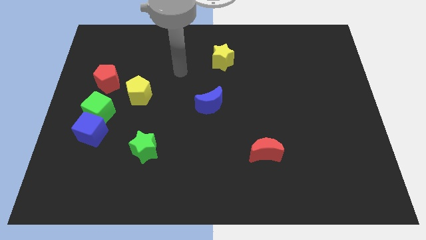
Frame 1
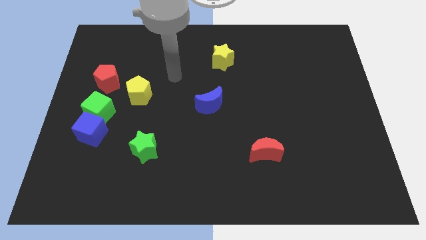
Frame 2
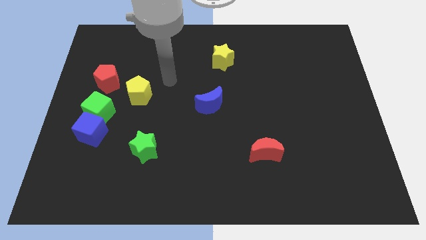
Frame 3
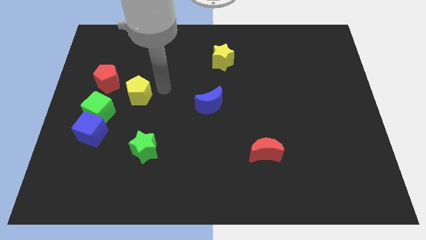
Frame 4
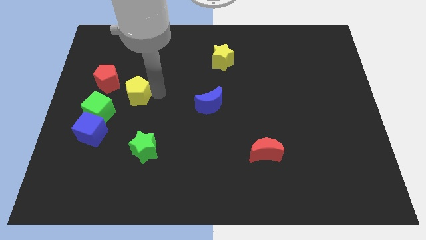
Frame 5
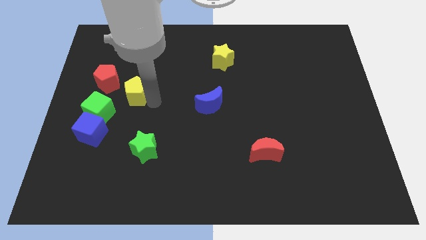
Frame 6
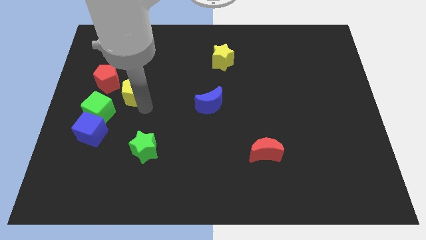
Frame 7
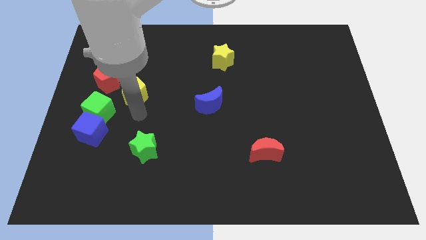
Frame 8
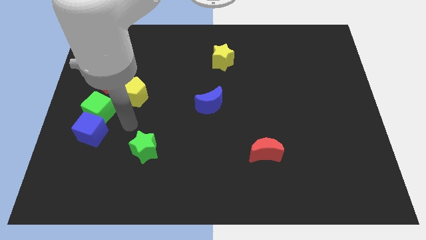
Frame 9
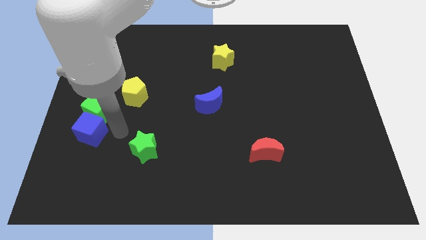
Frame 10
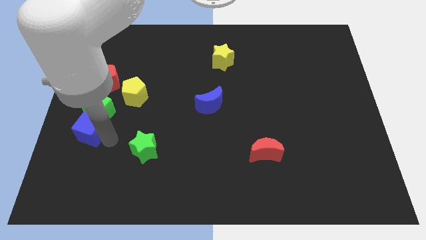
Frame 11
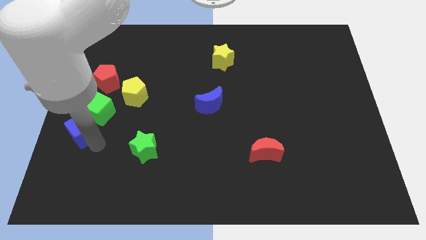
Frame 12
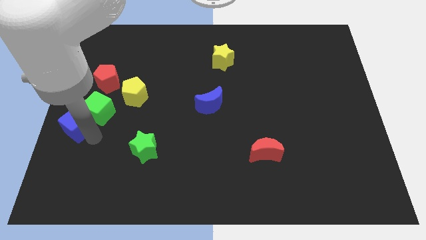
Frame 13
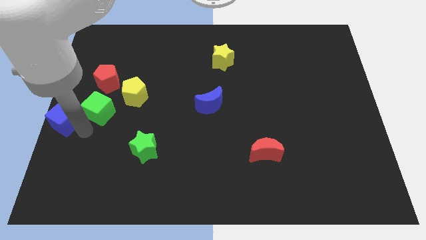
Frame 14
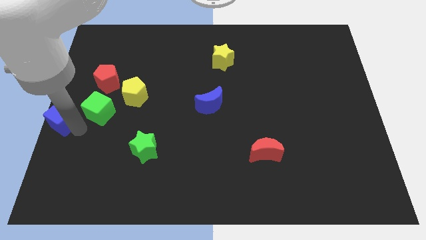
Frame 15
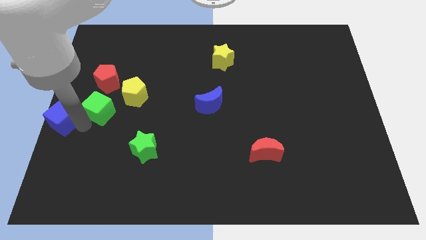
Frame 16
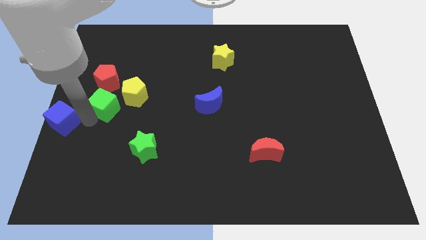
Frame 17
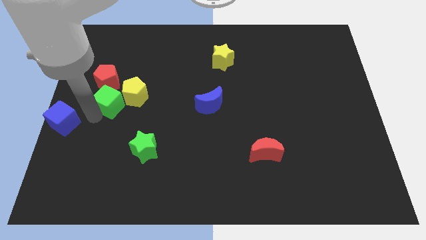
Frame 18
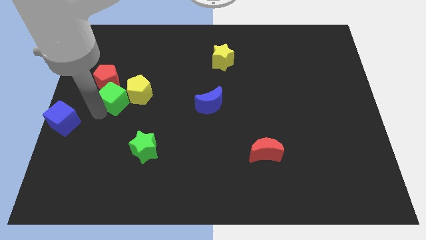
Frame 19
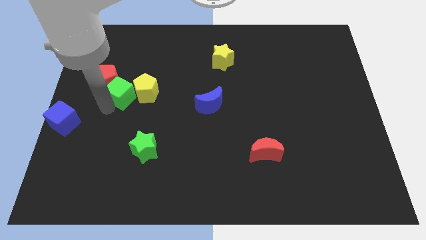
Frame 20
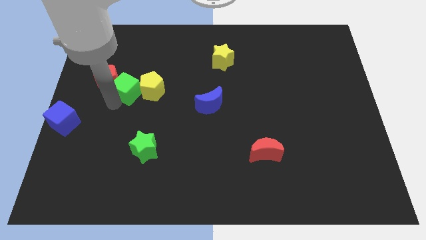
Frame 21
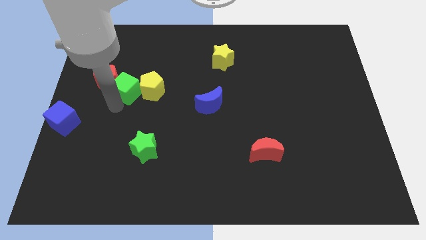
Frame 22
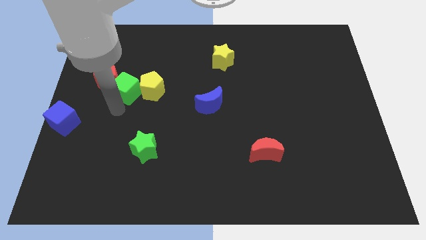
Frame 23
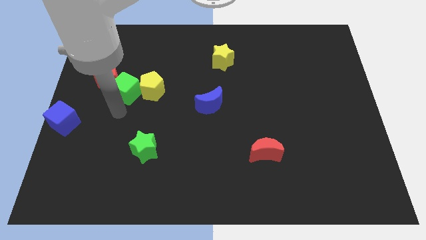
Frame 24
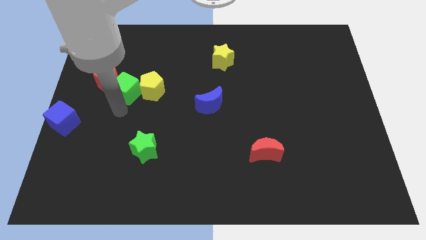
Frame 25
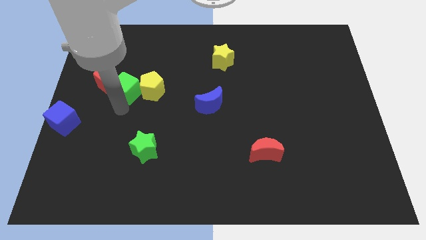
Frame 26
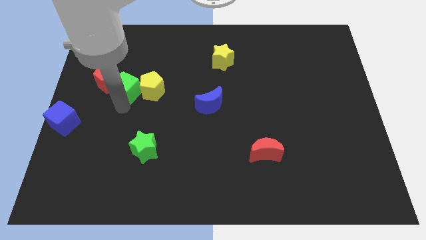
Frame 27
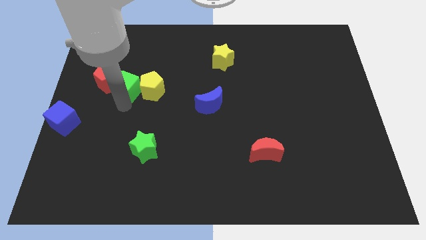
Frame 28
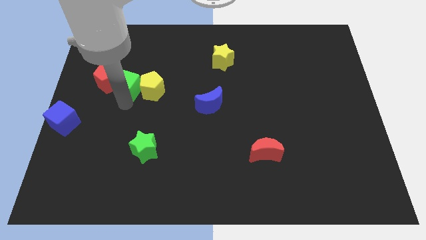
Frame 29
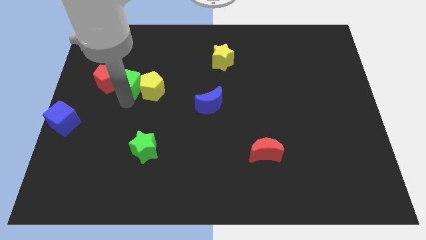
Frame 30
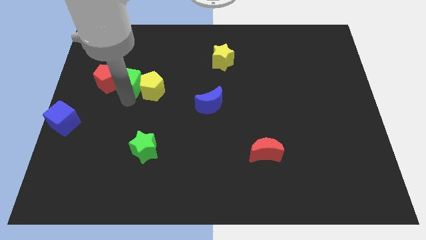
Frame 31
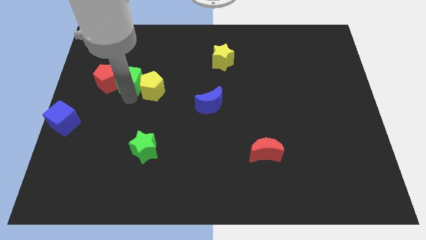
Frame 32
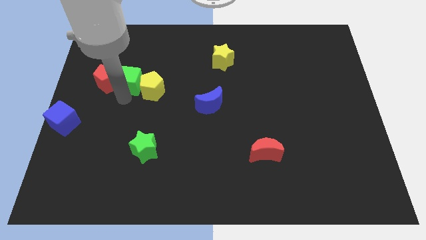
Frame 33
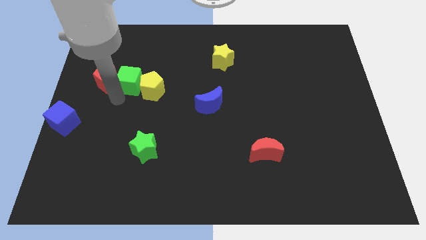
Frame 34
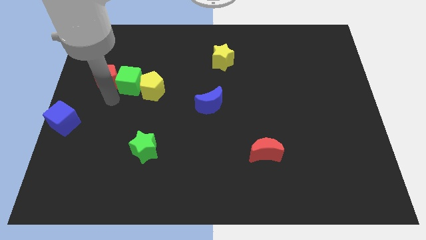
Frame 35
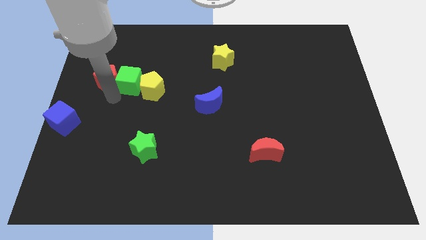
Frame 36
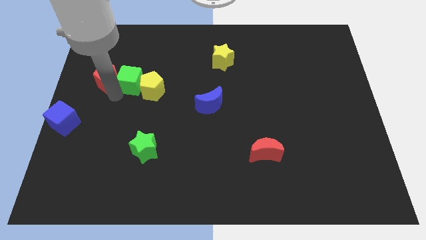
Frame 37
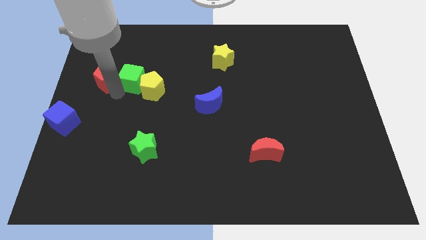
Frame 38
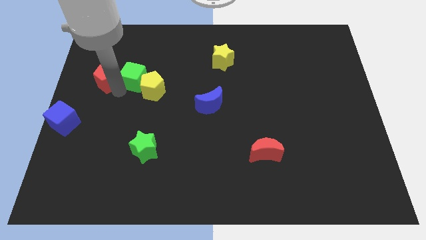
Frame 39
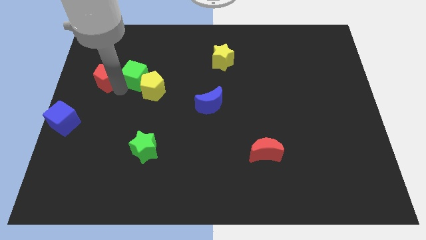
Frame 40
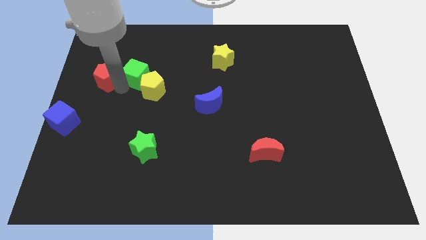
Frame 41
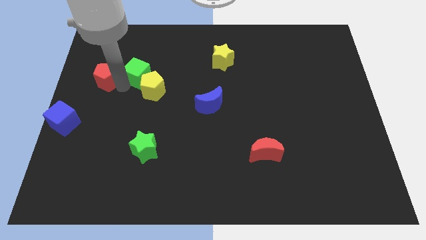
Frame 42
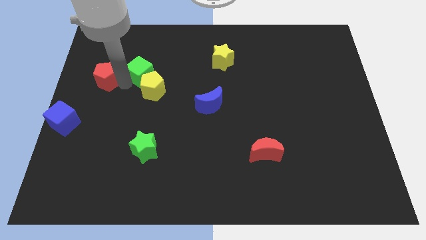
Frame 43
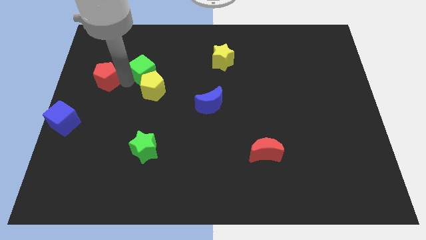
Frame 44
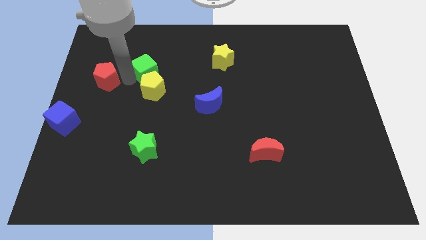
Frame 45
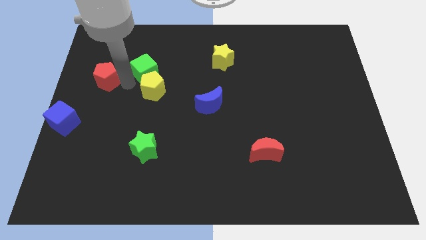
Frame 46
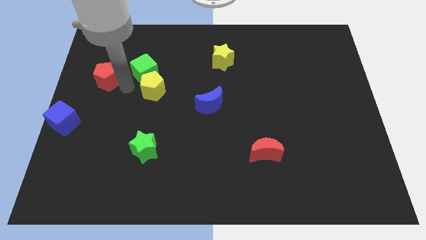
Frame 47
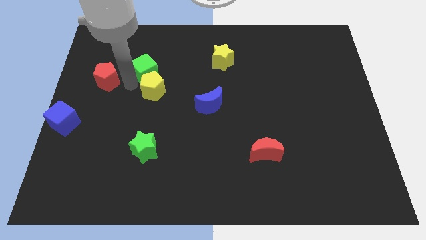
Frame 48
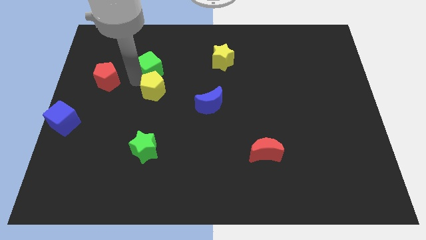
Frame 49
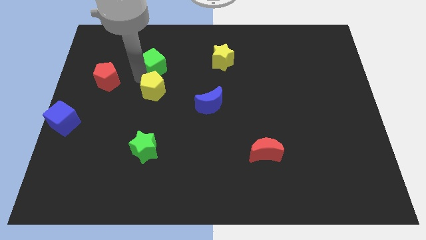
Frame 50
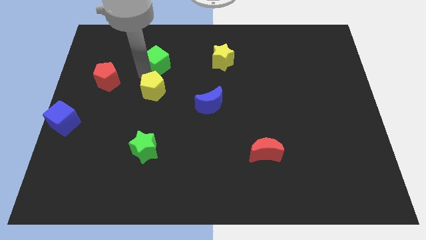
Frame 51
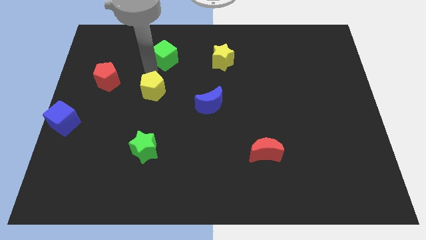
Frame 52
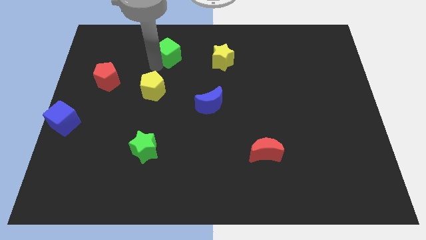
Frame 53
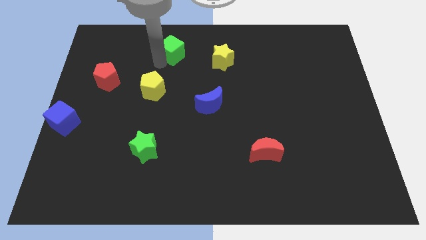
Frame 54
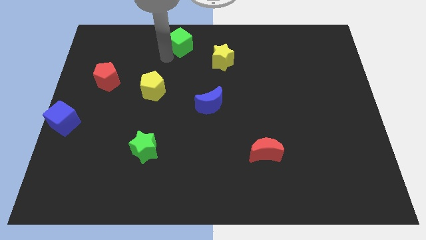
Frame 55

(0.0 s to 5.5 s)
put the green cube to the towards your base

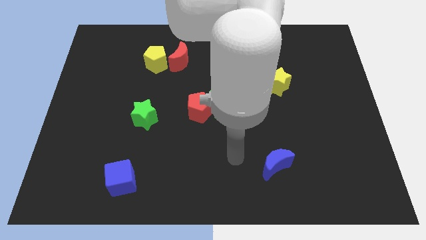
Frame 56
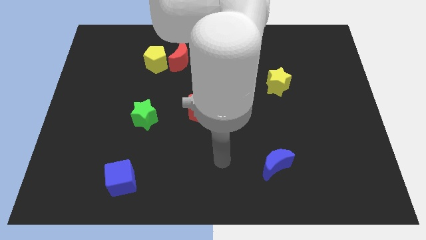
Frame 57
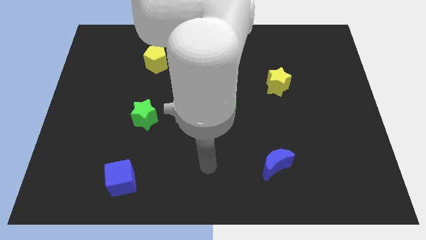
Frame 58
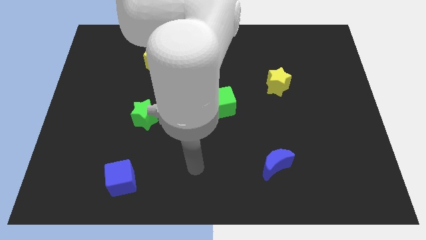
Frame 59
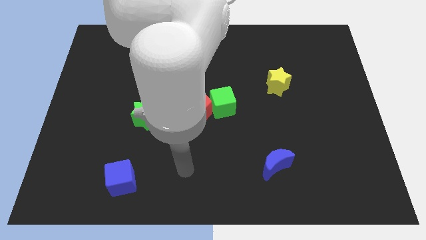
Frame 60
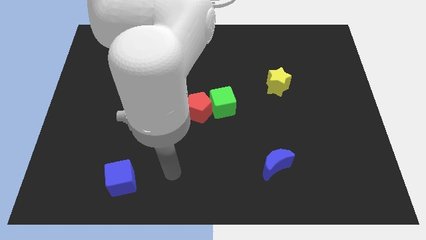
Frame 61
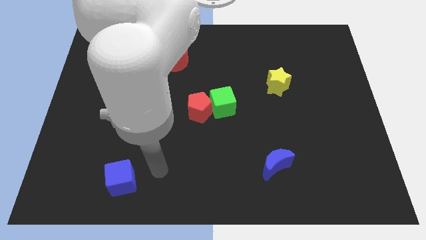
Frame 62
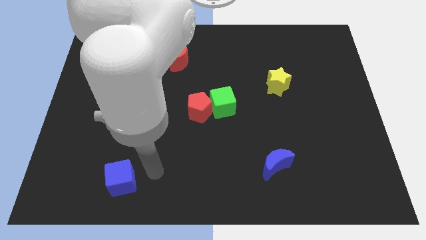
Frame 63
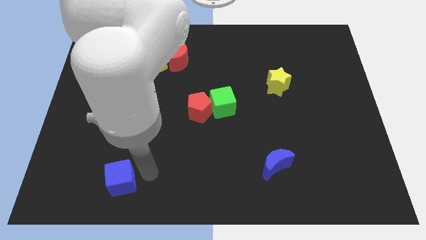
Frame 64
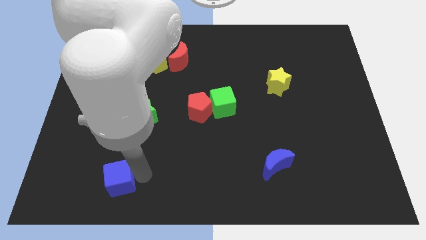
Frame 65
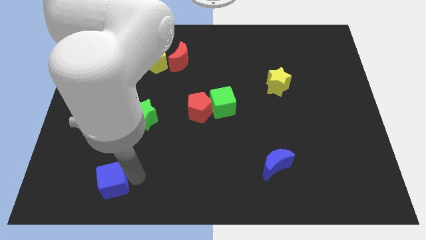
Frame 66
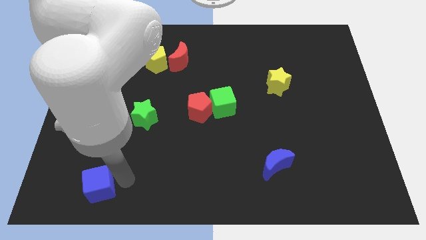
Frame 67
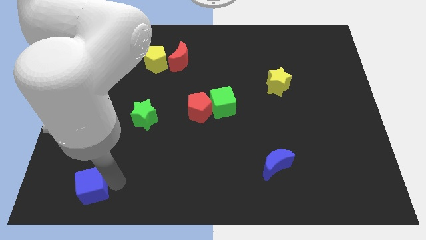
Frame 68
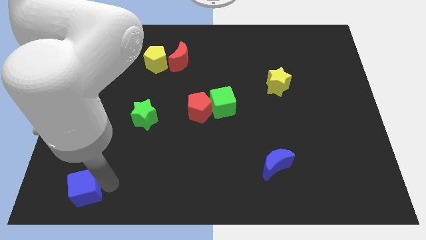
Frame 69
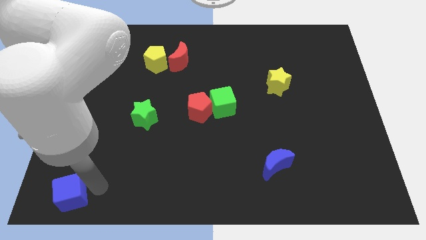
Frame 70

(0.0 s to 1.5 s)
slide the blue cube to the bottom left of the board
